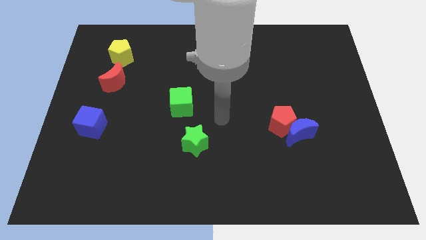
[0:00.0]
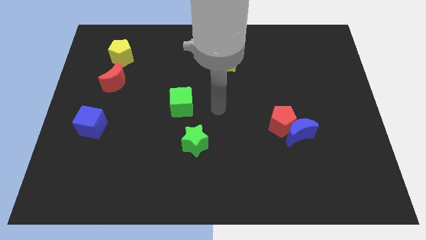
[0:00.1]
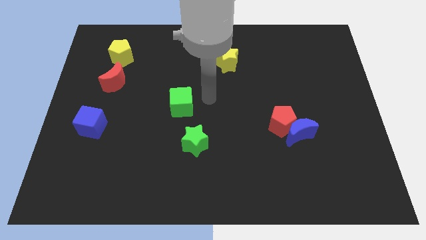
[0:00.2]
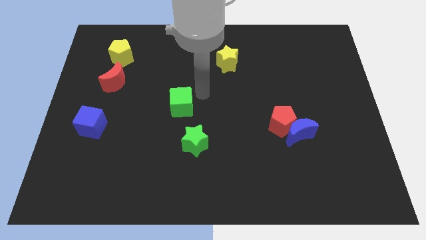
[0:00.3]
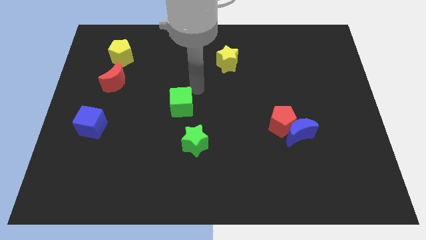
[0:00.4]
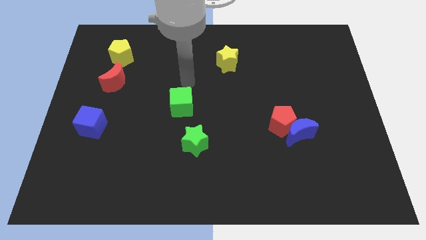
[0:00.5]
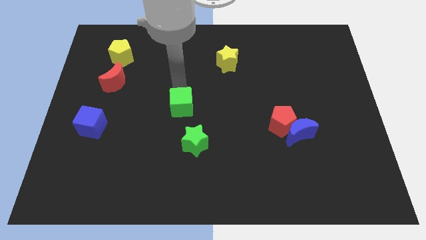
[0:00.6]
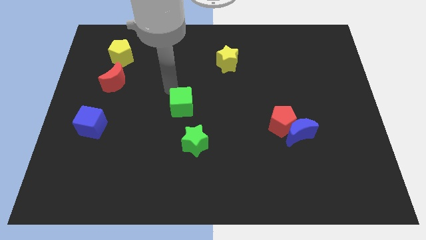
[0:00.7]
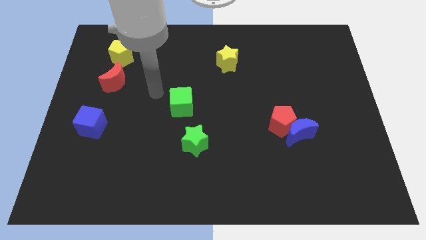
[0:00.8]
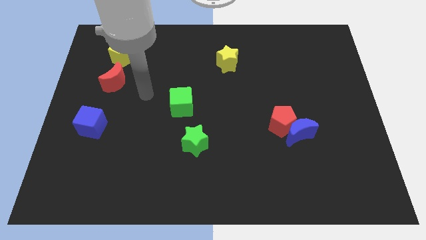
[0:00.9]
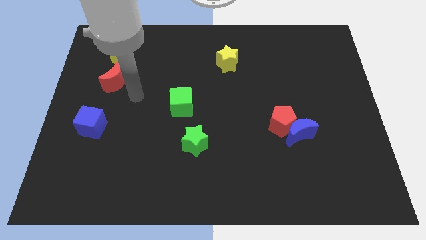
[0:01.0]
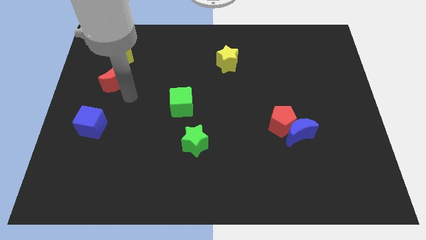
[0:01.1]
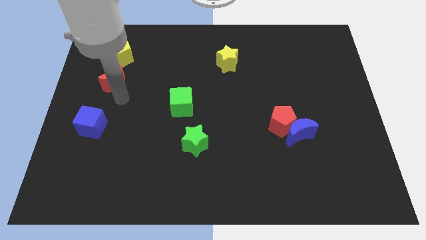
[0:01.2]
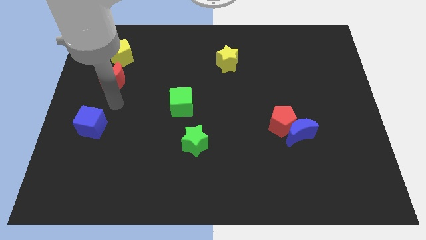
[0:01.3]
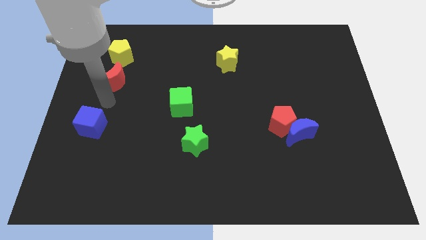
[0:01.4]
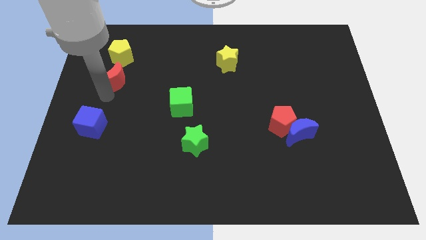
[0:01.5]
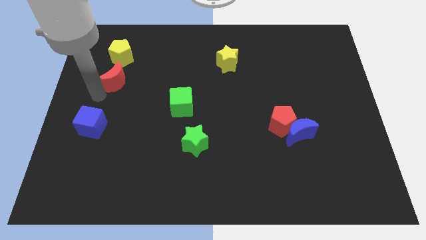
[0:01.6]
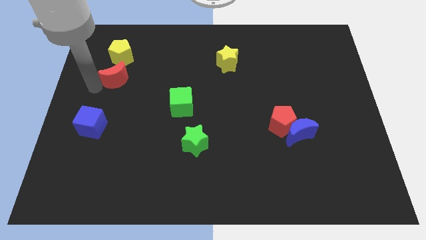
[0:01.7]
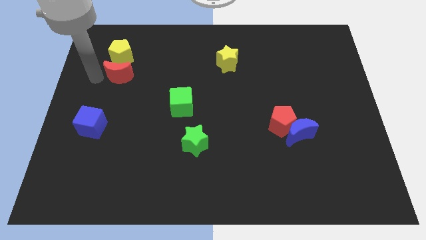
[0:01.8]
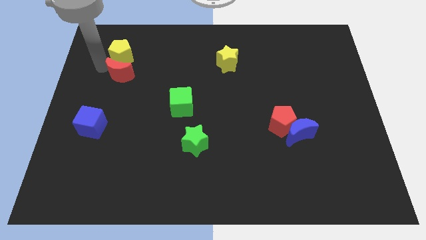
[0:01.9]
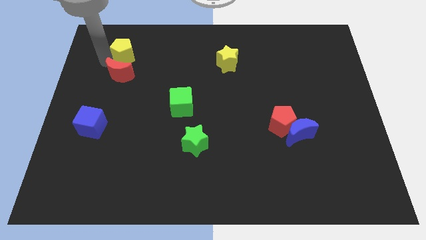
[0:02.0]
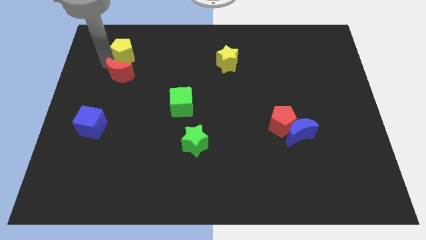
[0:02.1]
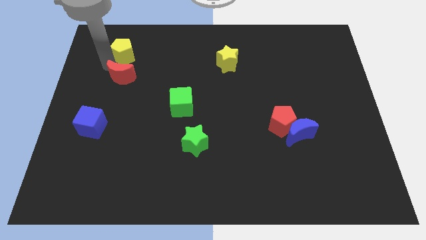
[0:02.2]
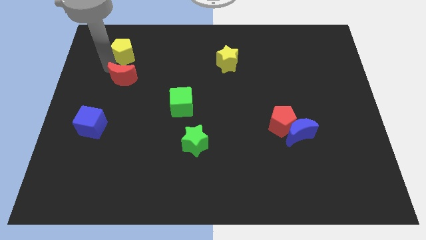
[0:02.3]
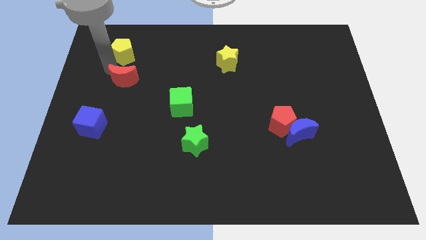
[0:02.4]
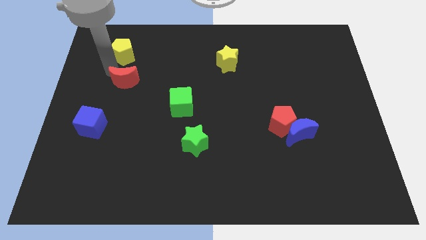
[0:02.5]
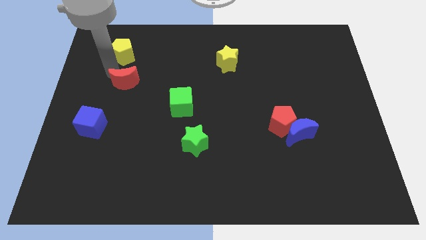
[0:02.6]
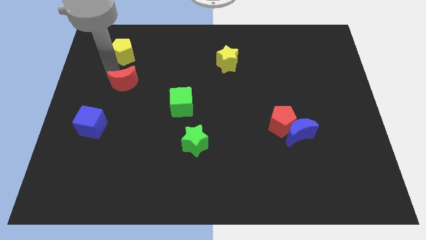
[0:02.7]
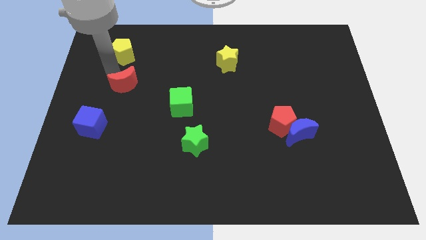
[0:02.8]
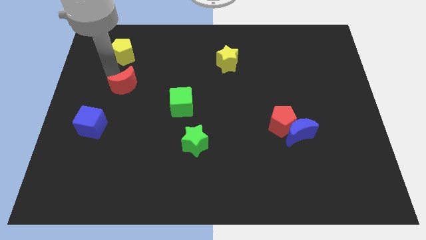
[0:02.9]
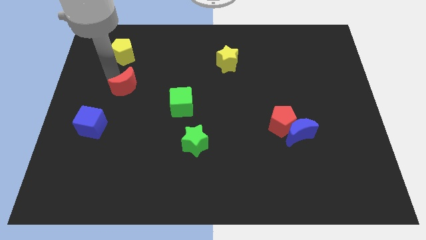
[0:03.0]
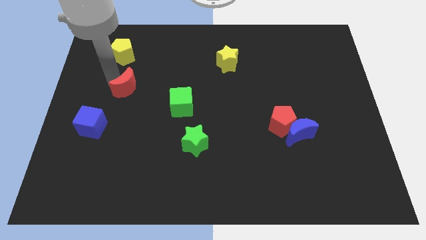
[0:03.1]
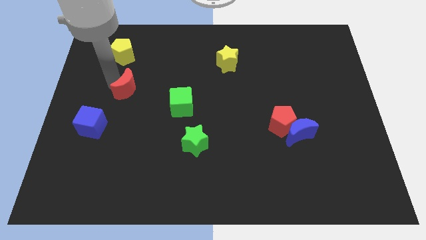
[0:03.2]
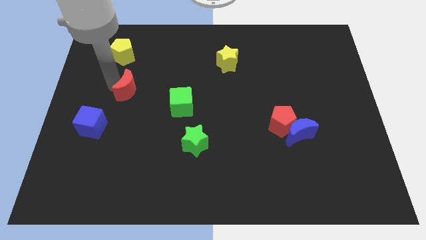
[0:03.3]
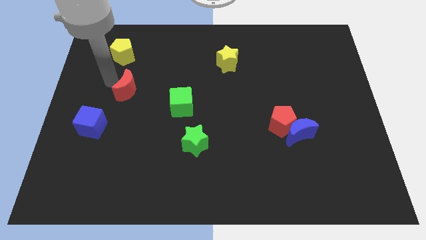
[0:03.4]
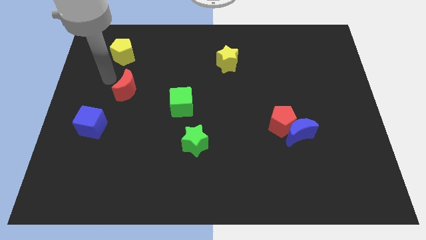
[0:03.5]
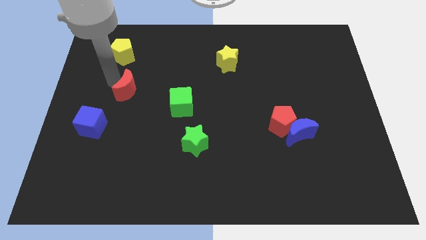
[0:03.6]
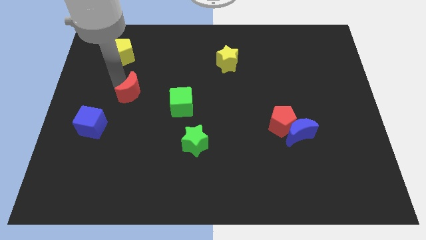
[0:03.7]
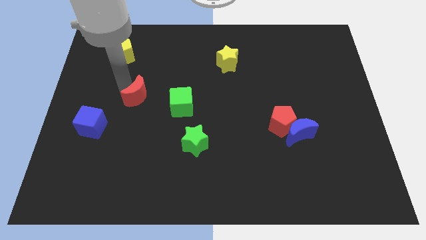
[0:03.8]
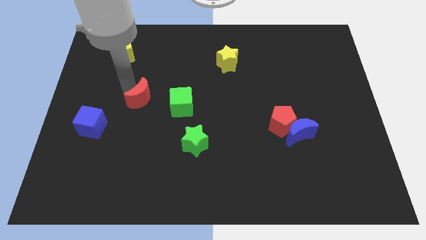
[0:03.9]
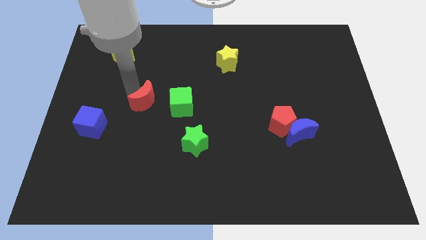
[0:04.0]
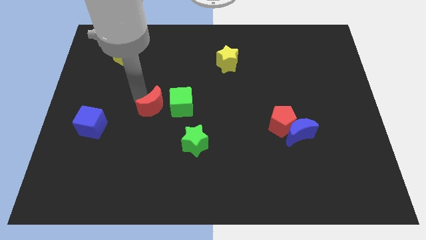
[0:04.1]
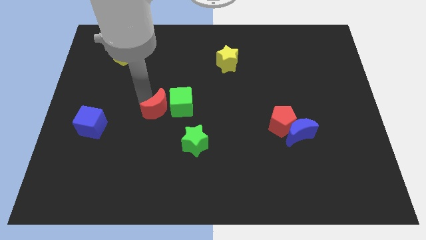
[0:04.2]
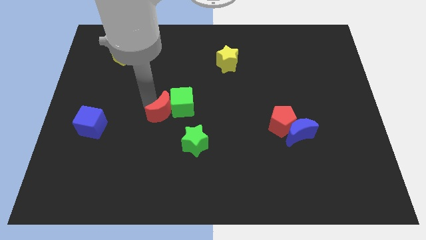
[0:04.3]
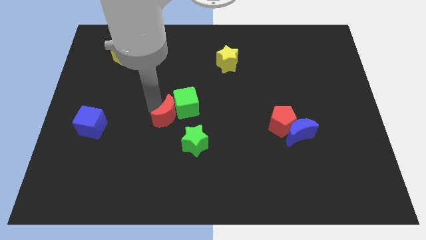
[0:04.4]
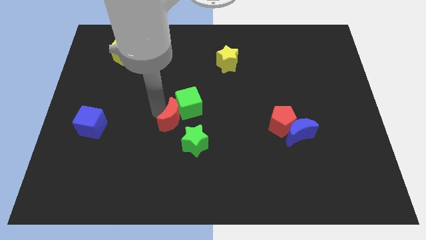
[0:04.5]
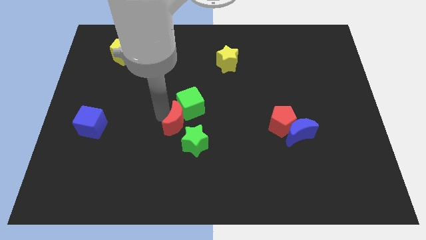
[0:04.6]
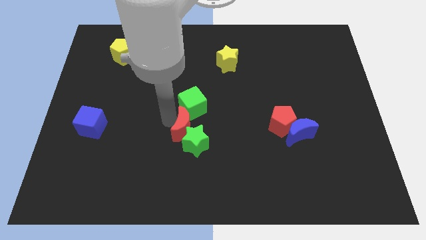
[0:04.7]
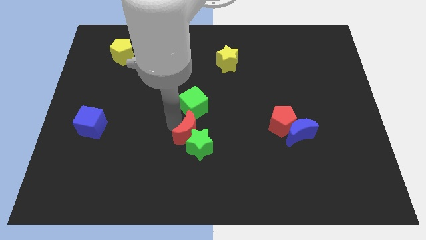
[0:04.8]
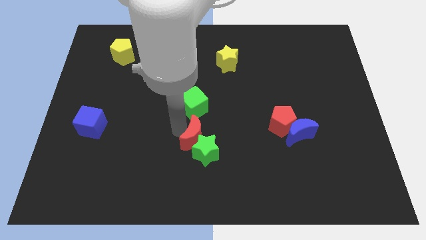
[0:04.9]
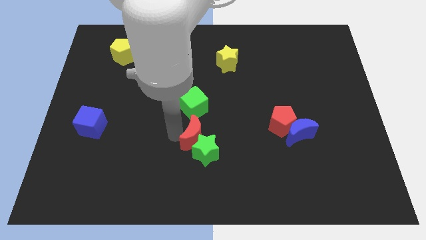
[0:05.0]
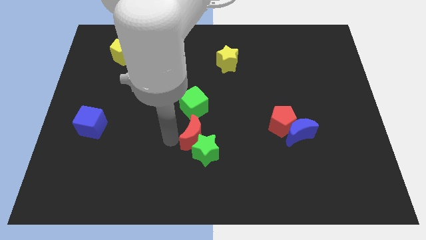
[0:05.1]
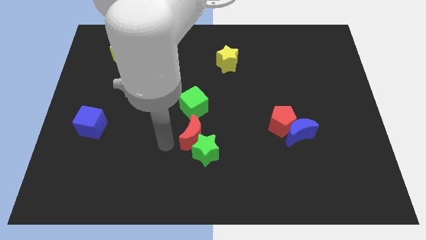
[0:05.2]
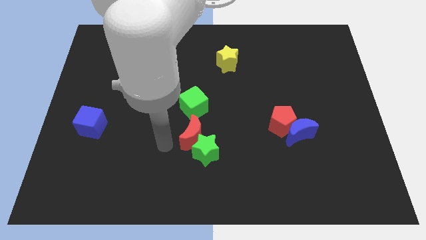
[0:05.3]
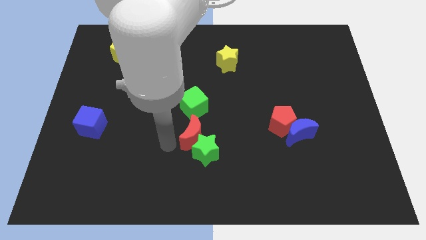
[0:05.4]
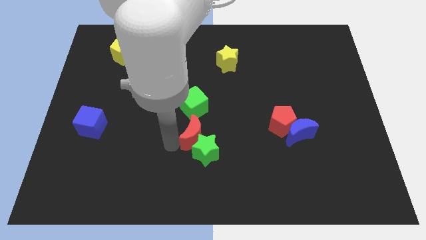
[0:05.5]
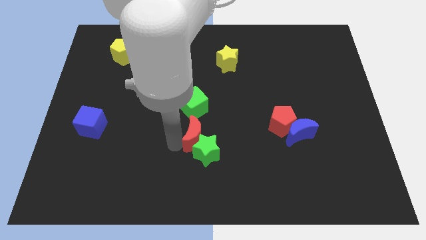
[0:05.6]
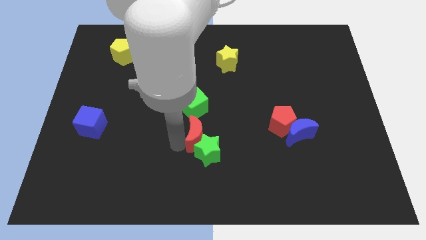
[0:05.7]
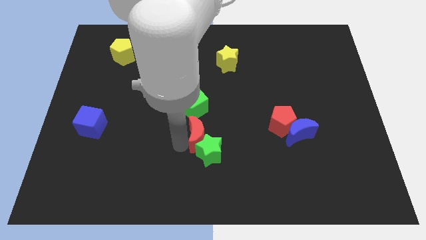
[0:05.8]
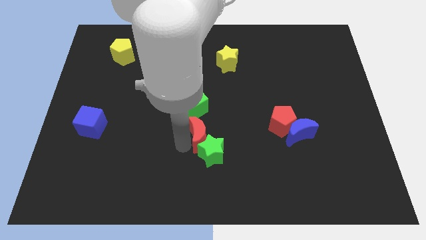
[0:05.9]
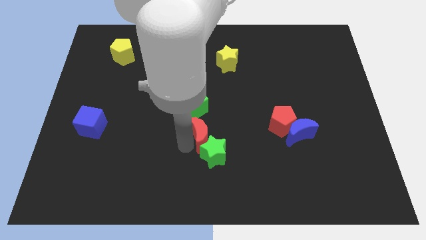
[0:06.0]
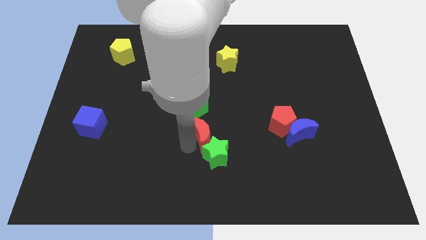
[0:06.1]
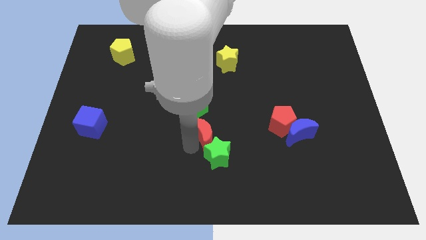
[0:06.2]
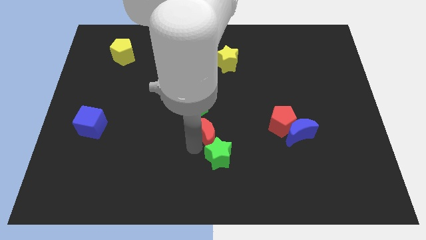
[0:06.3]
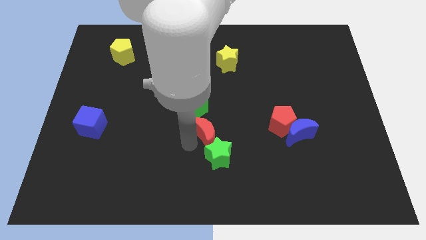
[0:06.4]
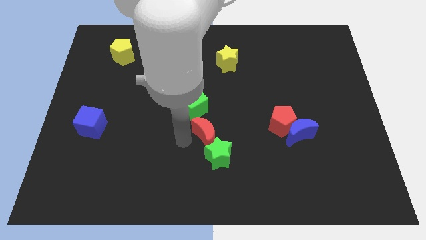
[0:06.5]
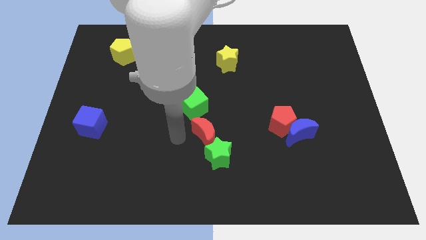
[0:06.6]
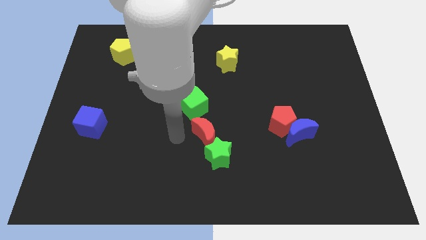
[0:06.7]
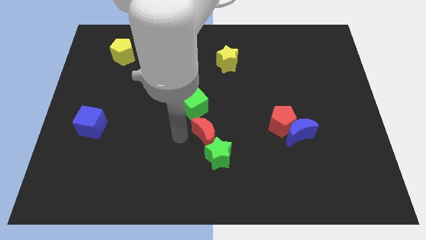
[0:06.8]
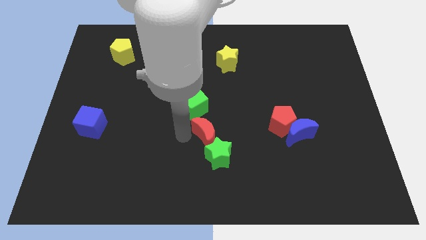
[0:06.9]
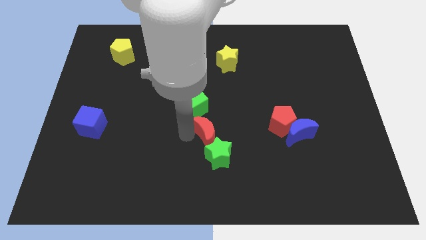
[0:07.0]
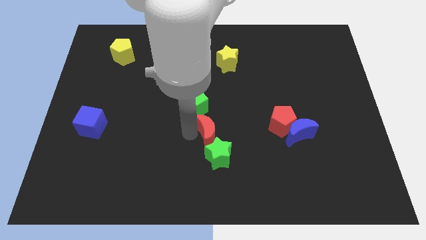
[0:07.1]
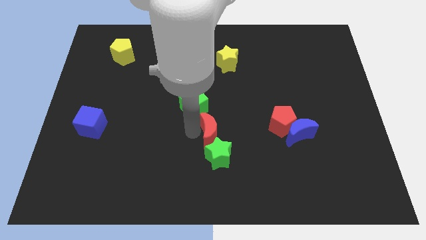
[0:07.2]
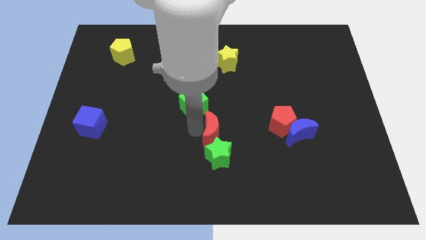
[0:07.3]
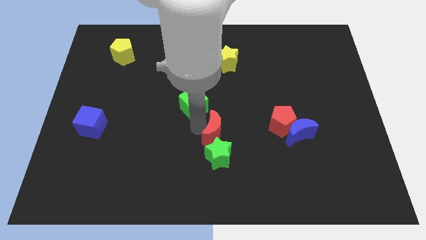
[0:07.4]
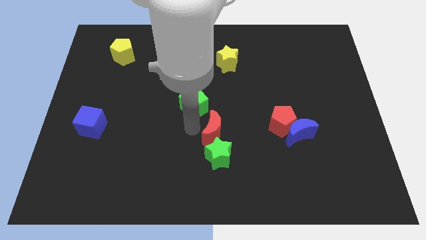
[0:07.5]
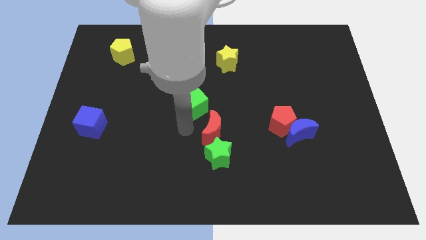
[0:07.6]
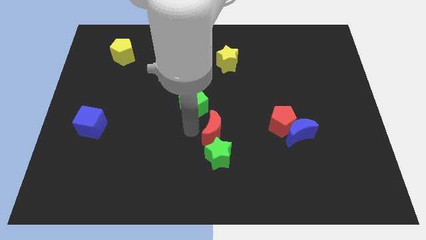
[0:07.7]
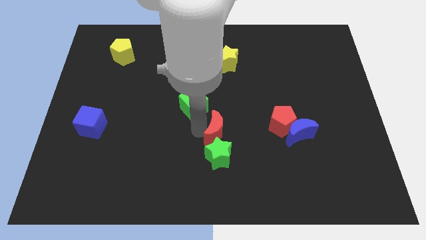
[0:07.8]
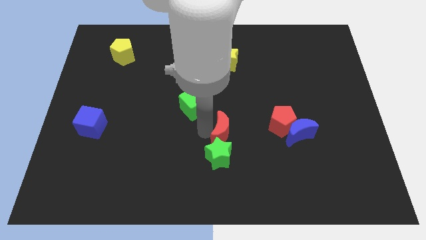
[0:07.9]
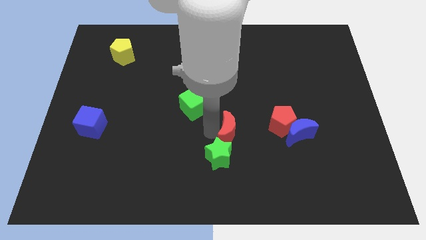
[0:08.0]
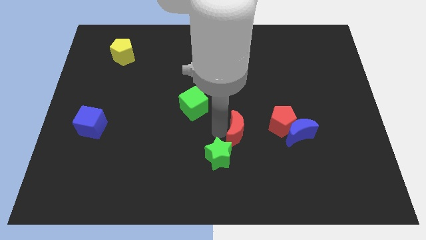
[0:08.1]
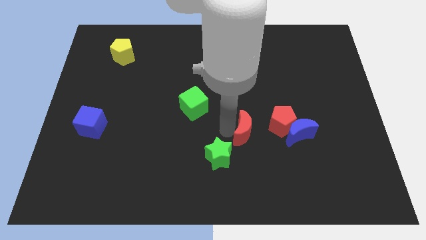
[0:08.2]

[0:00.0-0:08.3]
slide the red moon to the bottom left of the red pentagon
